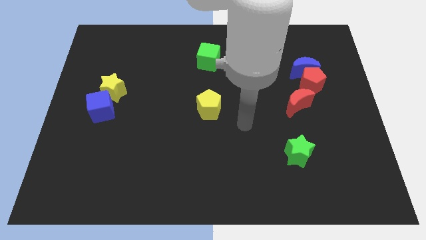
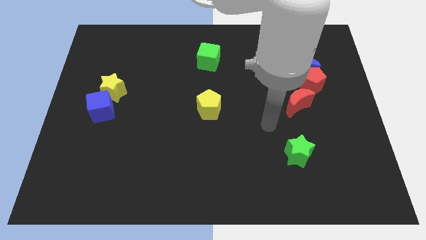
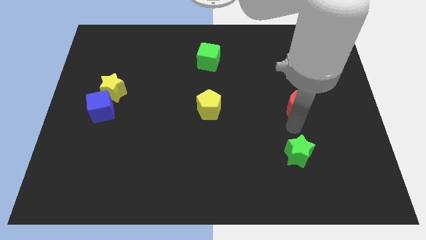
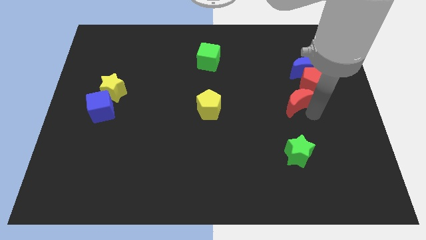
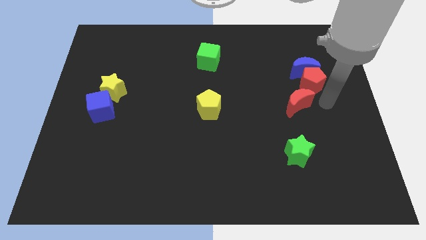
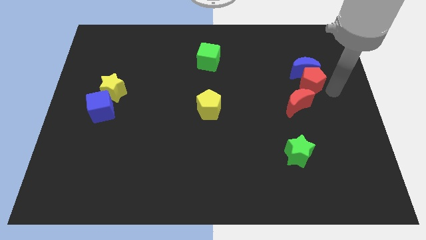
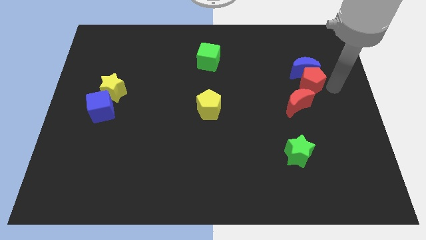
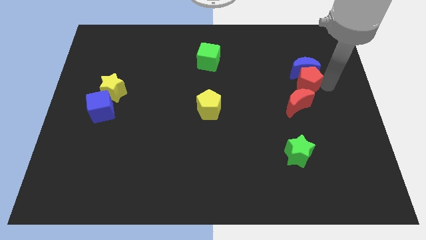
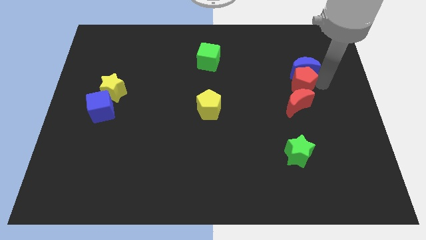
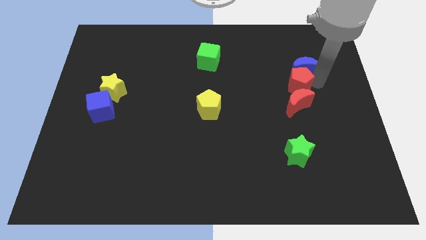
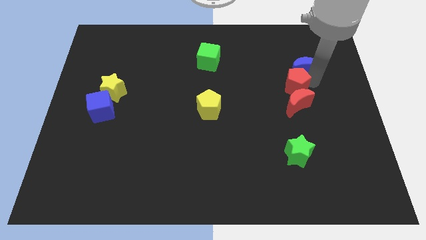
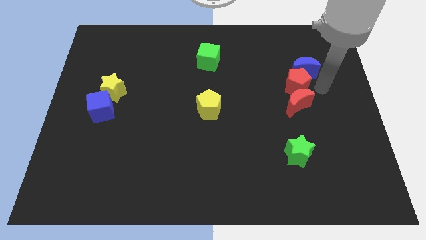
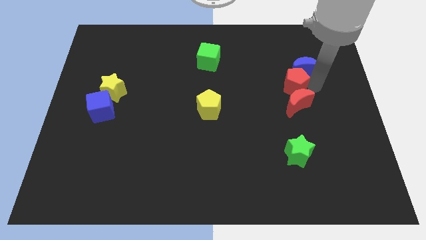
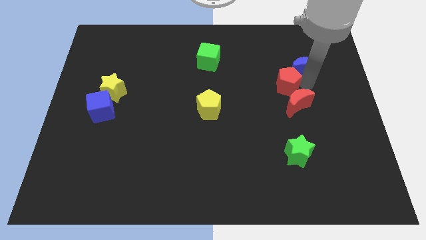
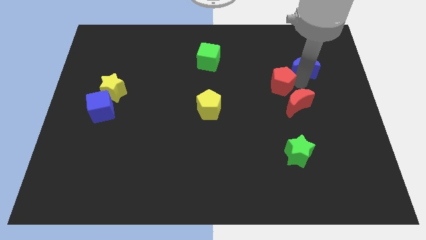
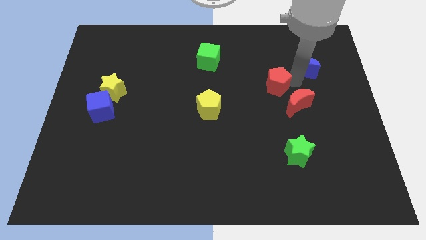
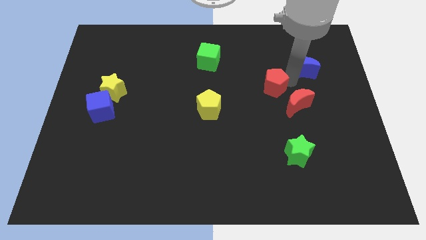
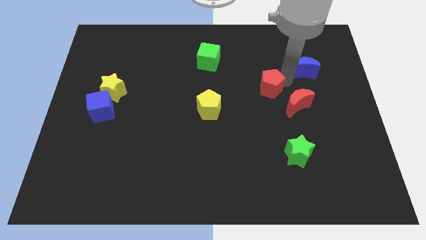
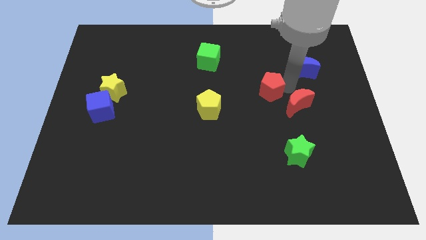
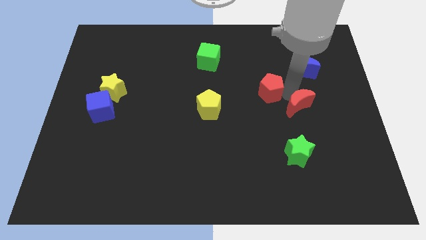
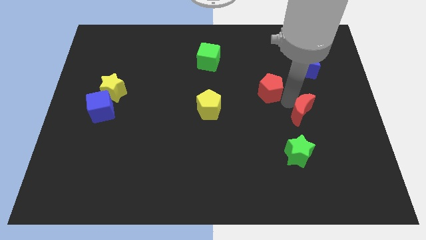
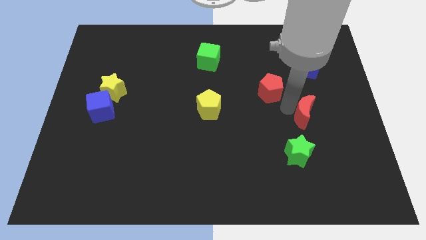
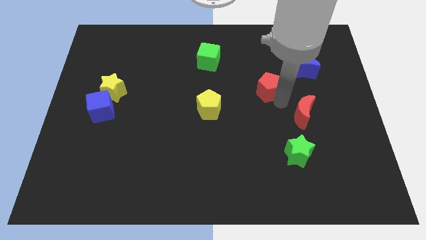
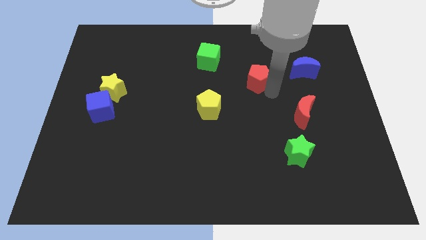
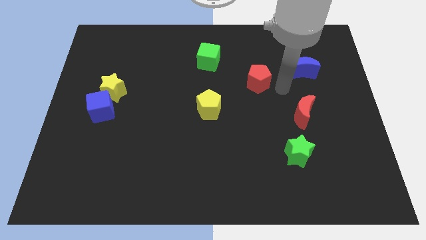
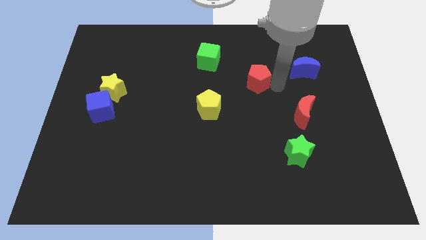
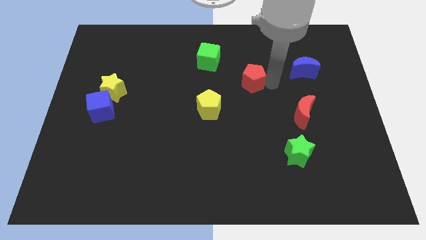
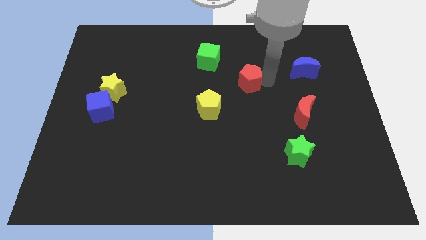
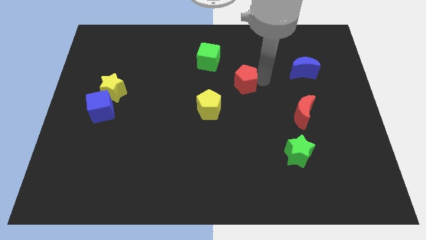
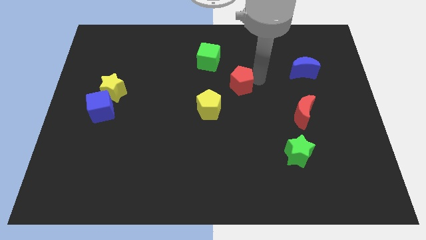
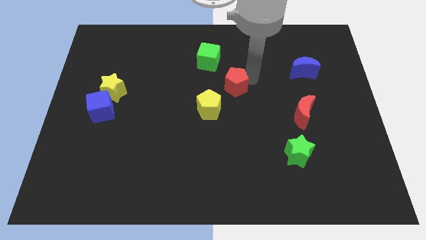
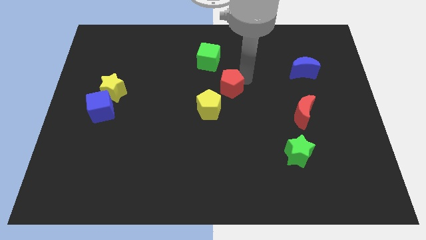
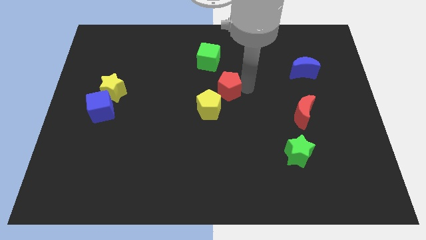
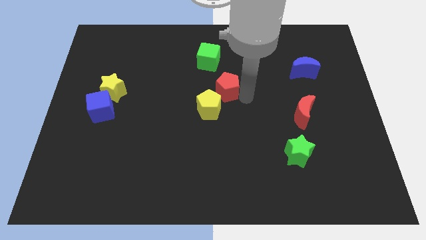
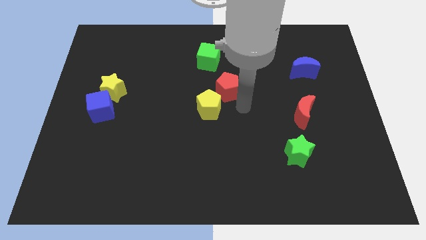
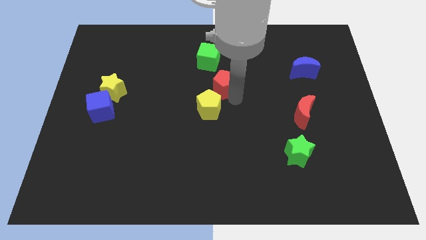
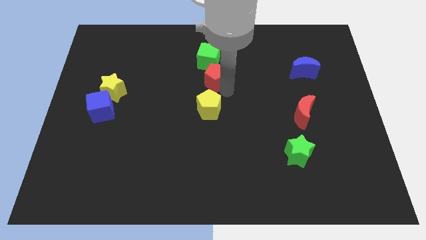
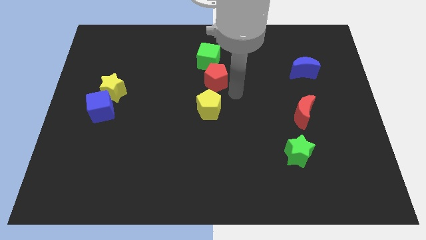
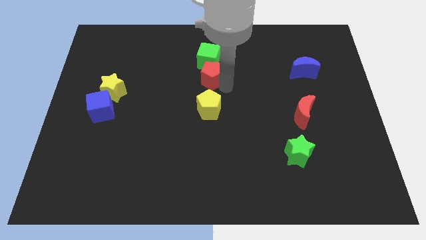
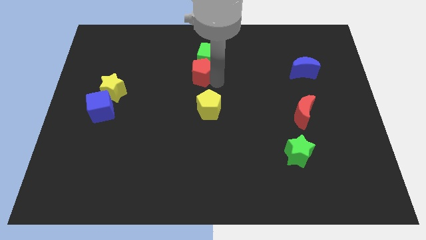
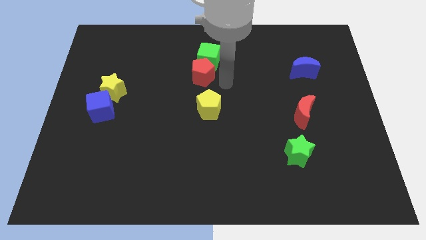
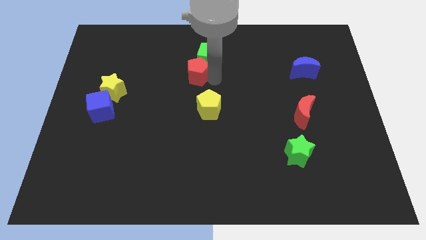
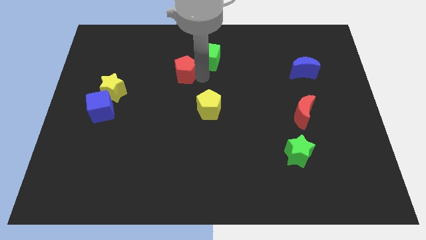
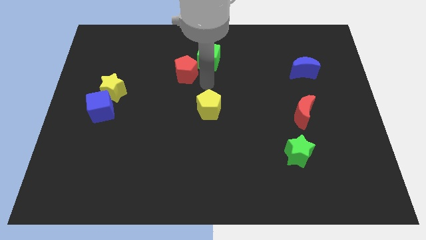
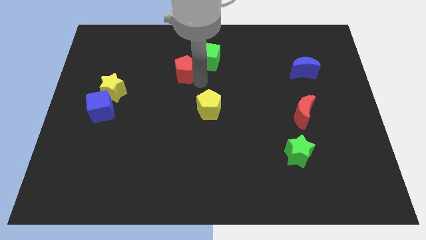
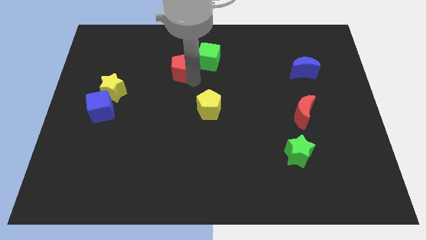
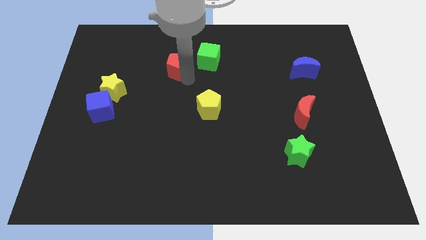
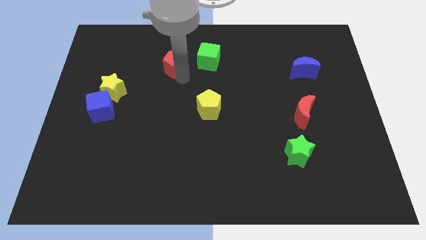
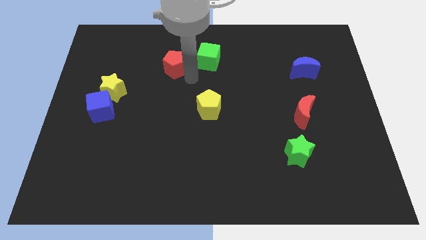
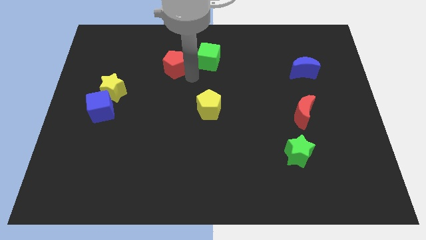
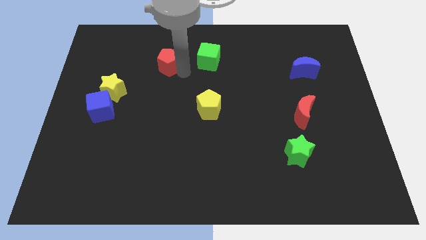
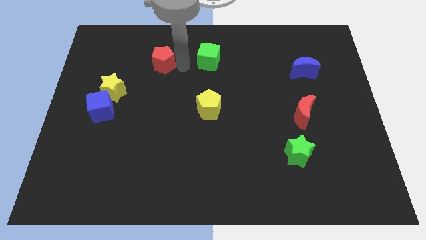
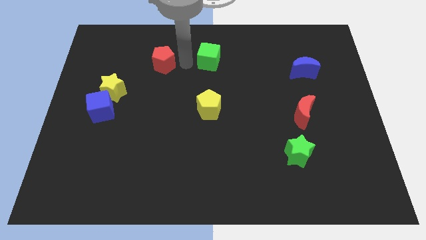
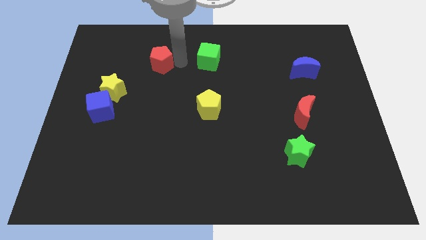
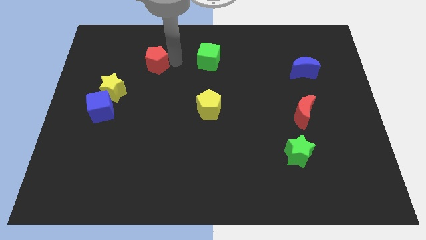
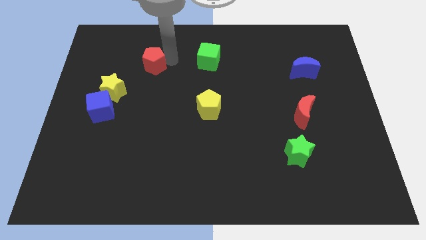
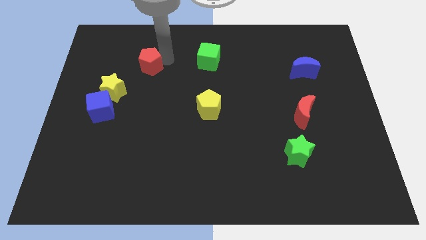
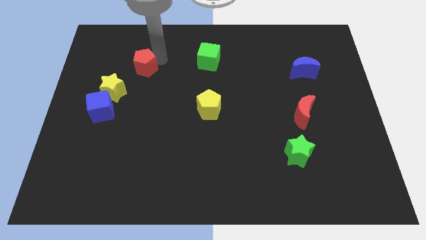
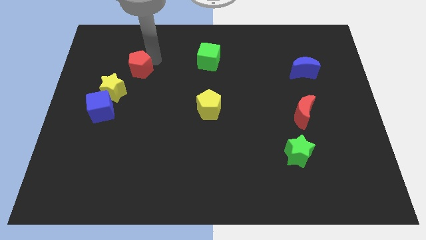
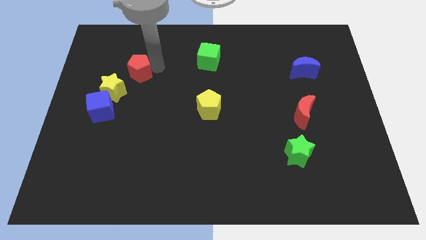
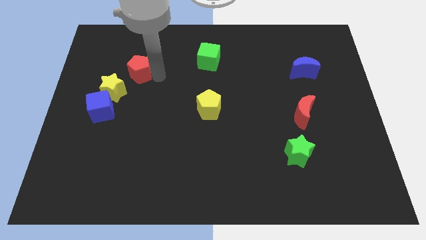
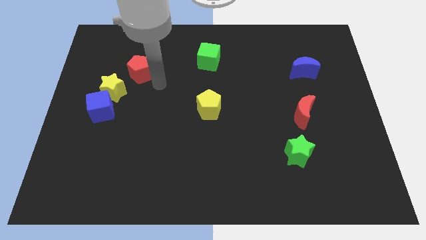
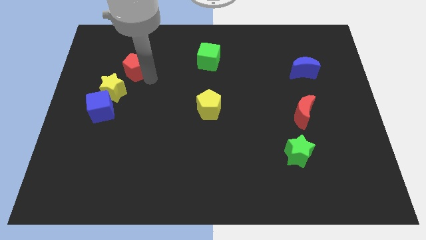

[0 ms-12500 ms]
move the red pentagon above the yellow star

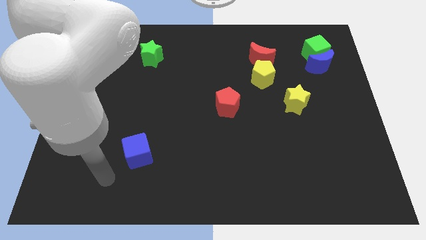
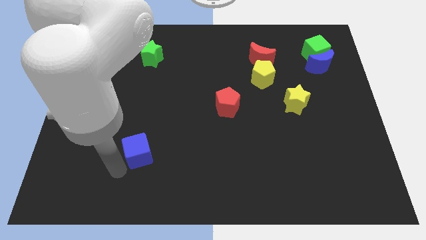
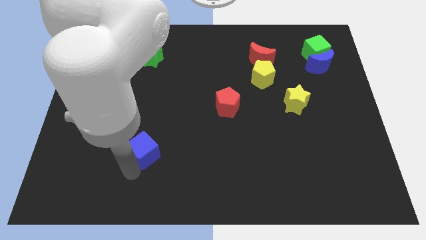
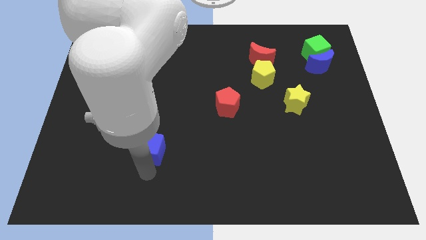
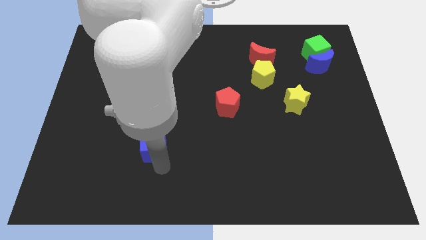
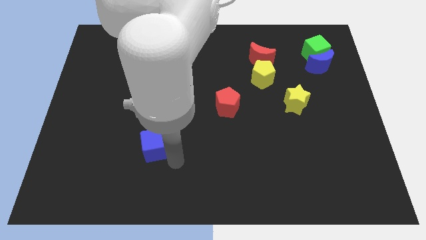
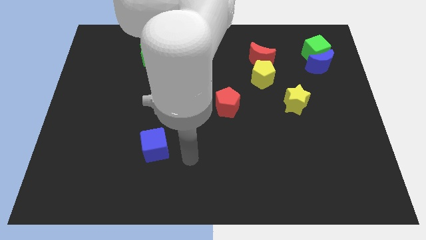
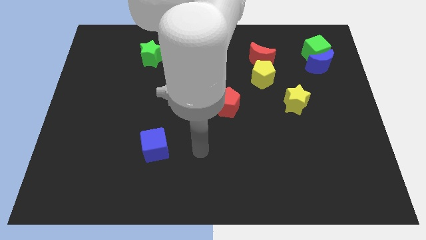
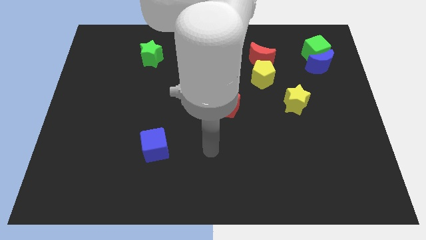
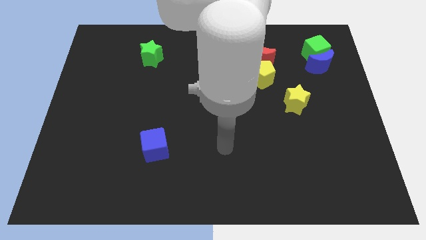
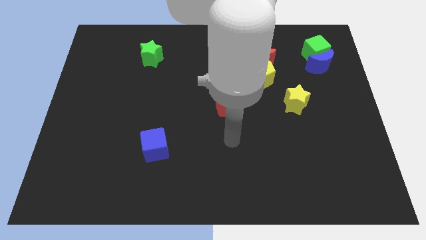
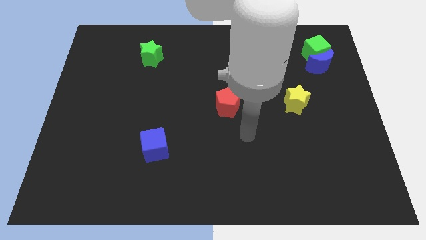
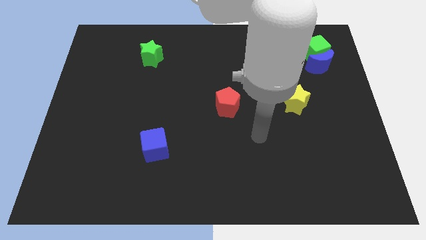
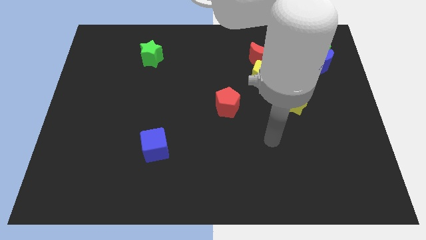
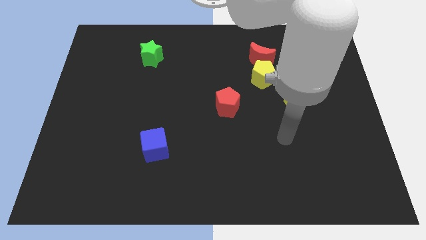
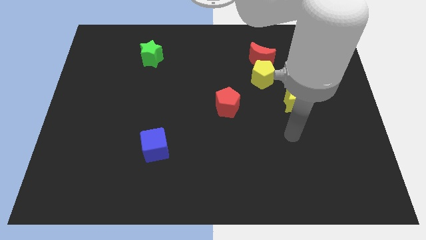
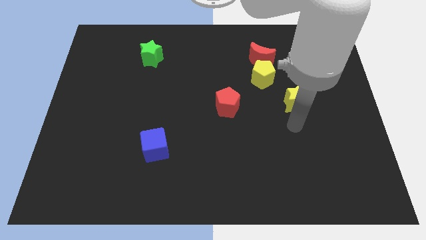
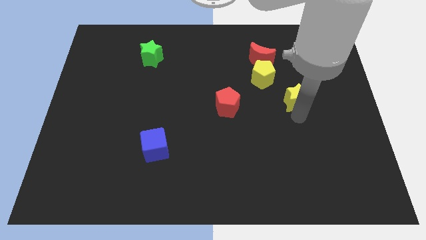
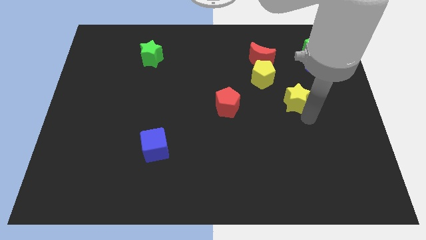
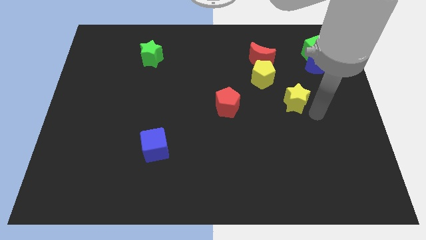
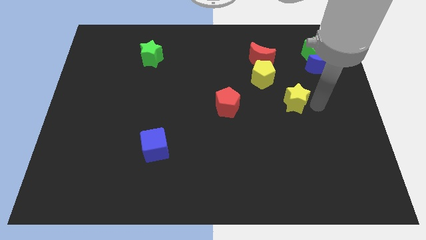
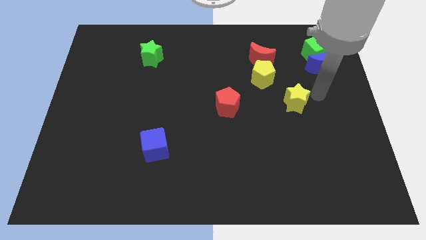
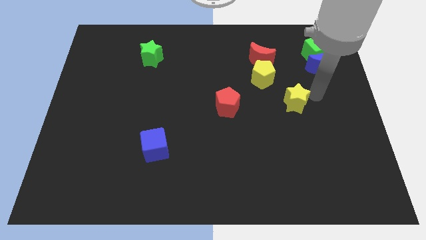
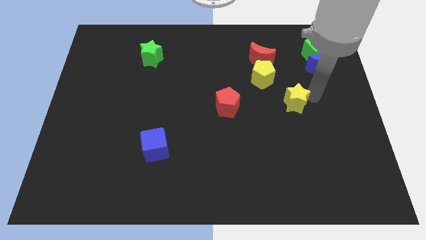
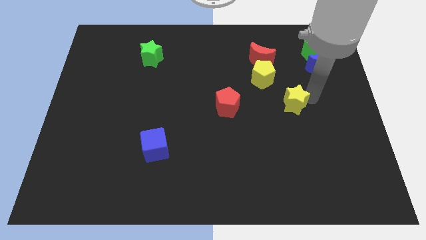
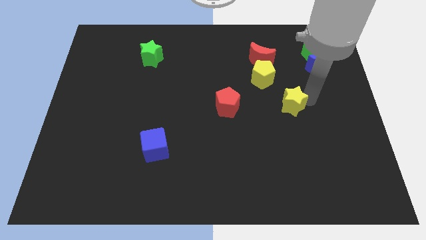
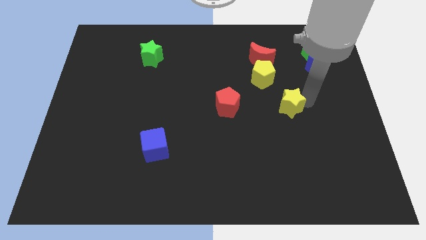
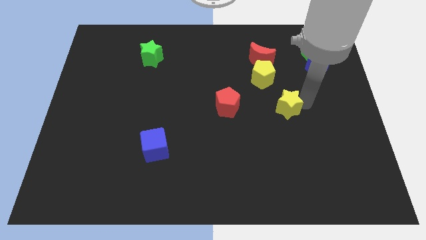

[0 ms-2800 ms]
put the yellow star below the yellow pentagon
